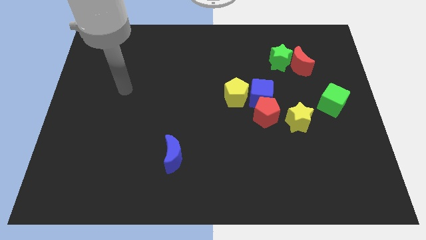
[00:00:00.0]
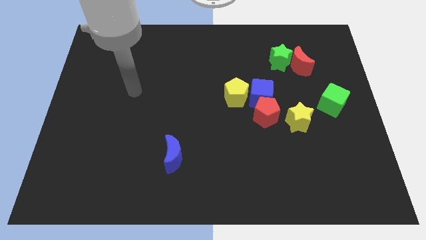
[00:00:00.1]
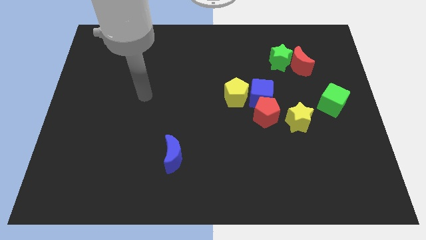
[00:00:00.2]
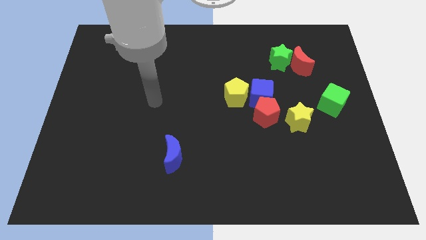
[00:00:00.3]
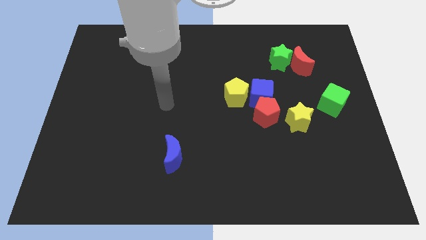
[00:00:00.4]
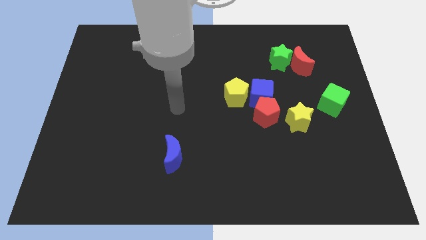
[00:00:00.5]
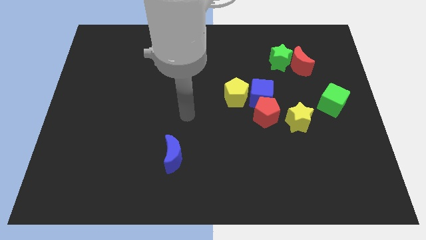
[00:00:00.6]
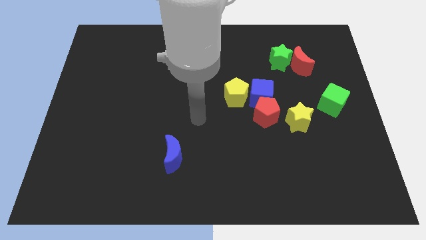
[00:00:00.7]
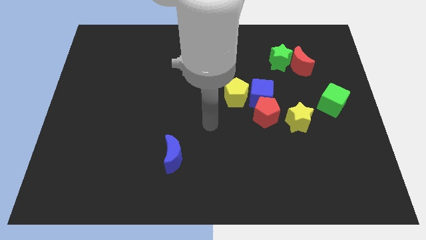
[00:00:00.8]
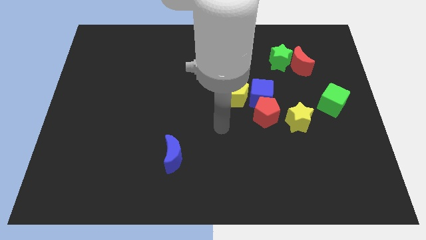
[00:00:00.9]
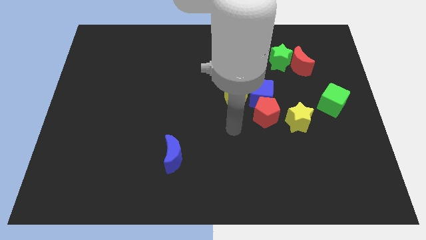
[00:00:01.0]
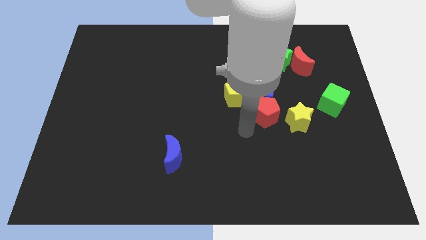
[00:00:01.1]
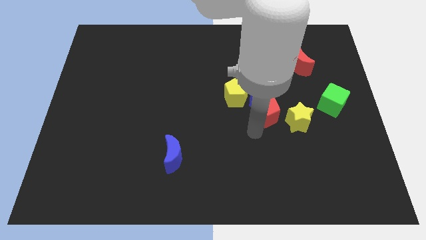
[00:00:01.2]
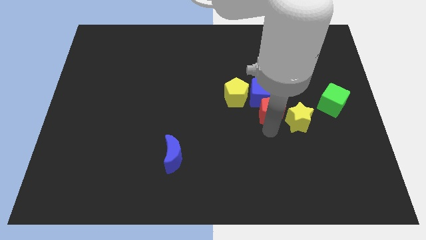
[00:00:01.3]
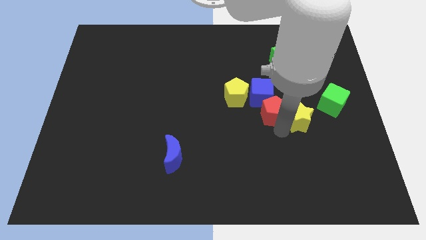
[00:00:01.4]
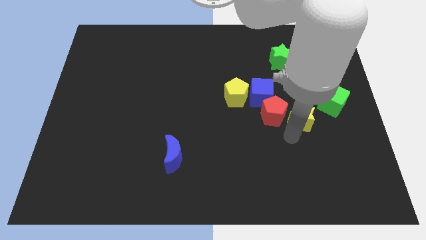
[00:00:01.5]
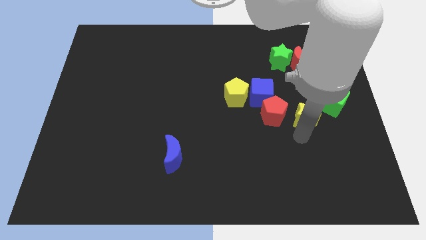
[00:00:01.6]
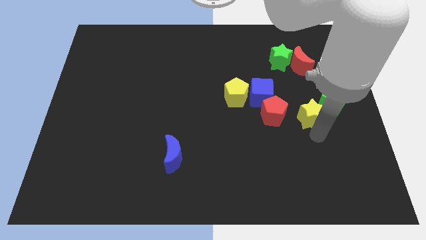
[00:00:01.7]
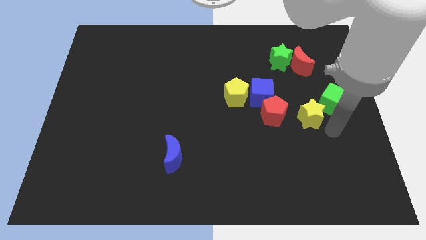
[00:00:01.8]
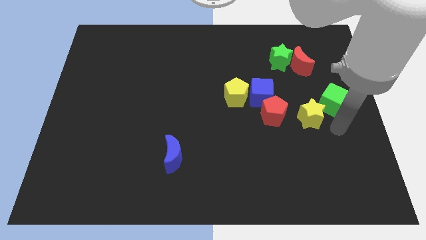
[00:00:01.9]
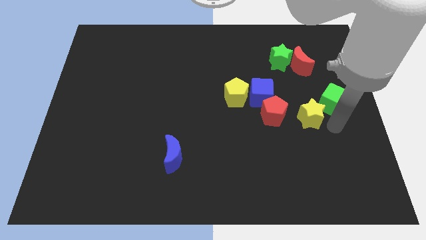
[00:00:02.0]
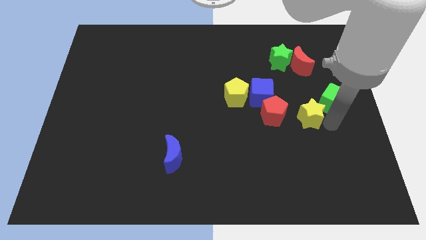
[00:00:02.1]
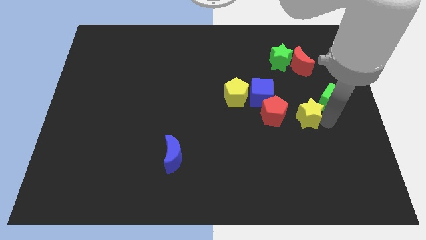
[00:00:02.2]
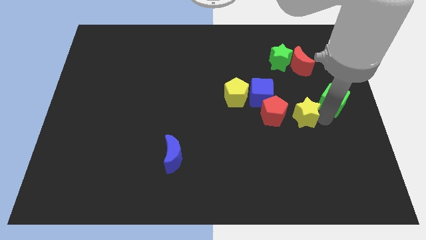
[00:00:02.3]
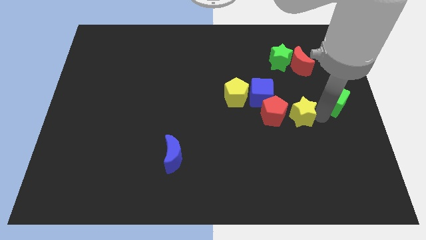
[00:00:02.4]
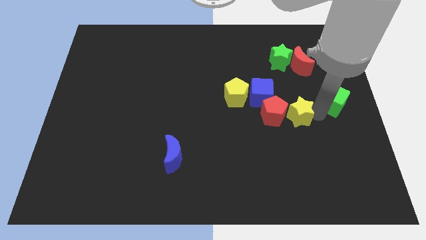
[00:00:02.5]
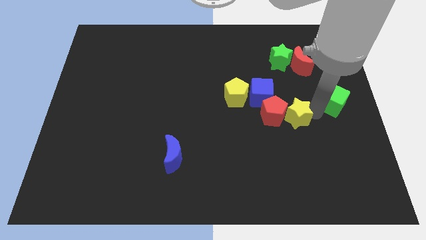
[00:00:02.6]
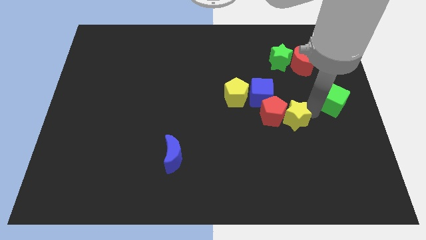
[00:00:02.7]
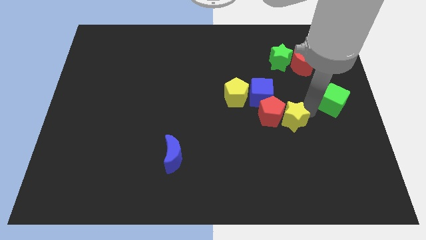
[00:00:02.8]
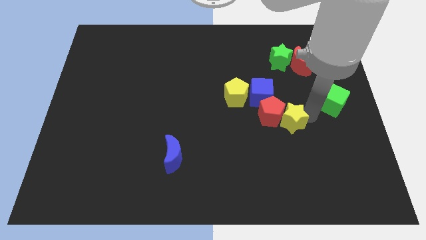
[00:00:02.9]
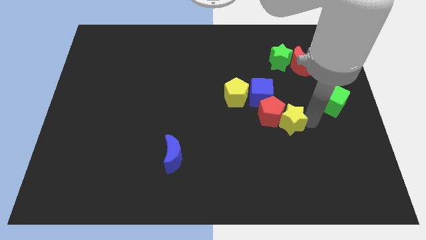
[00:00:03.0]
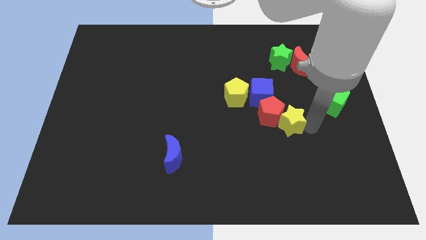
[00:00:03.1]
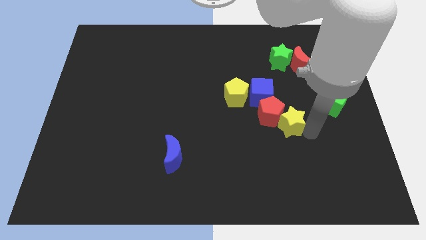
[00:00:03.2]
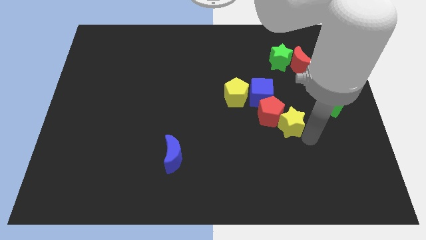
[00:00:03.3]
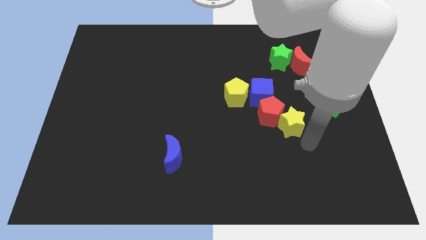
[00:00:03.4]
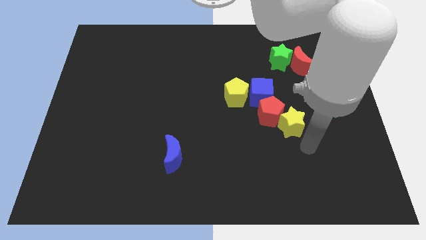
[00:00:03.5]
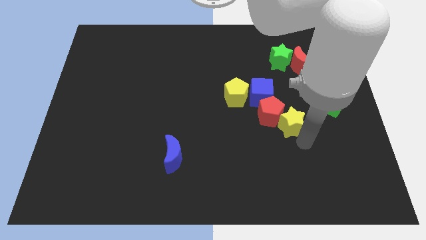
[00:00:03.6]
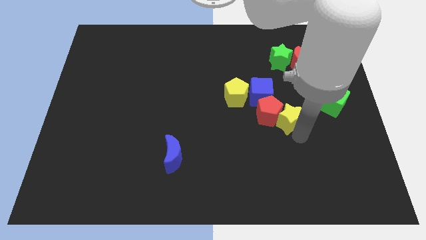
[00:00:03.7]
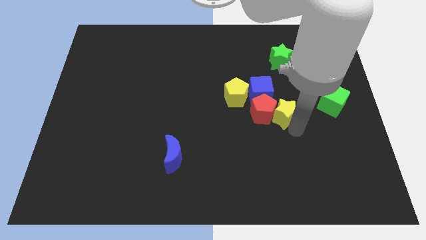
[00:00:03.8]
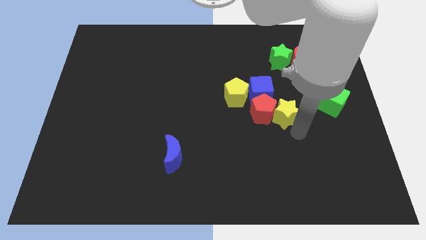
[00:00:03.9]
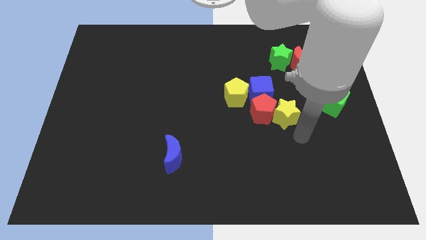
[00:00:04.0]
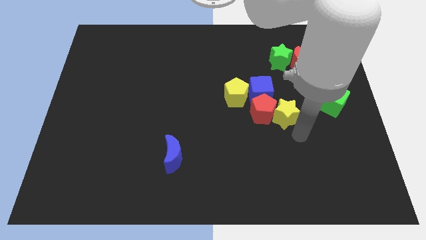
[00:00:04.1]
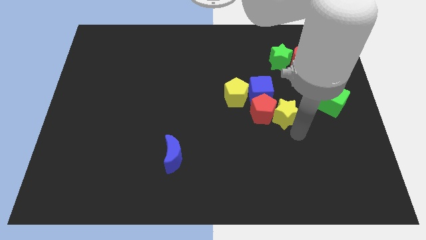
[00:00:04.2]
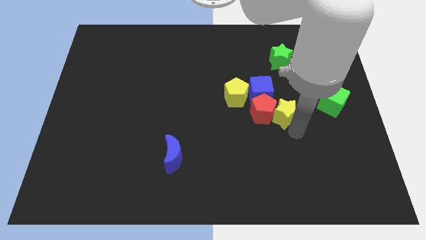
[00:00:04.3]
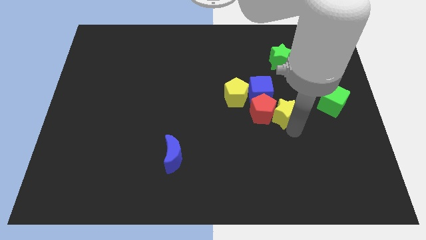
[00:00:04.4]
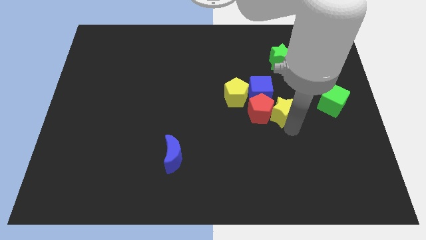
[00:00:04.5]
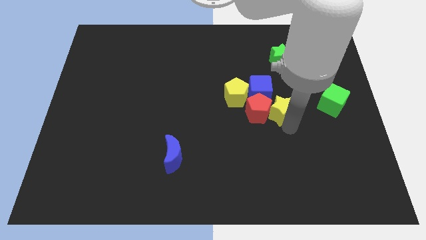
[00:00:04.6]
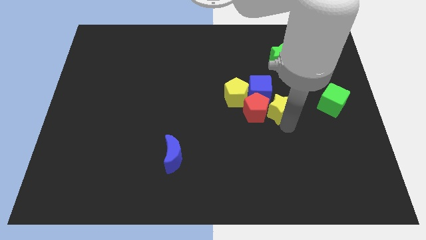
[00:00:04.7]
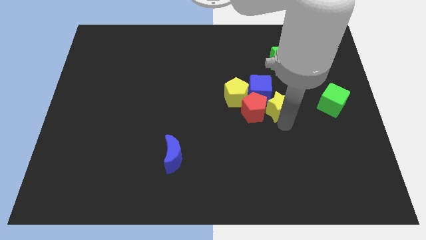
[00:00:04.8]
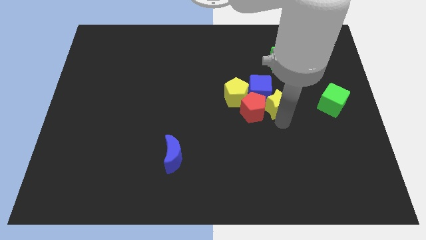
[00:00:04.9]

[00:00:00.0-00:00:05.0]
put the yellow star to the blue cube

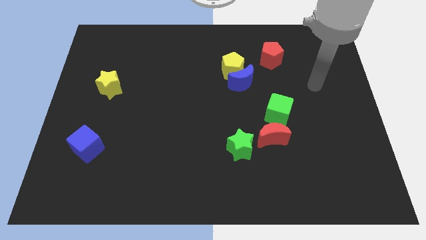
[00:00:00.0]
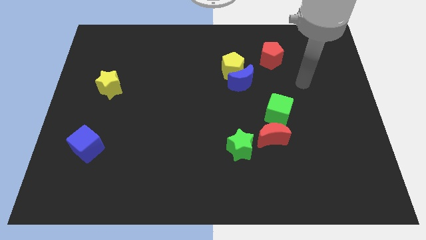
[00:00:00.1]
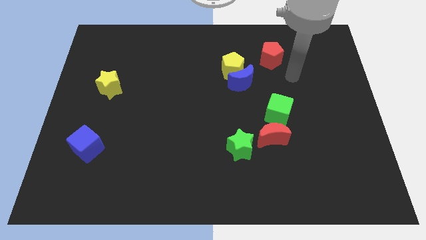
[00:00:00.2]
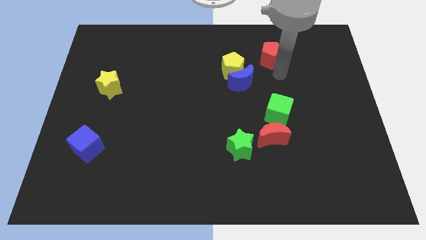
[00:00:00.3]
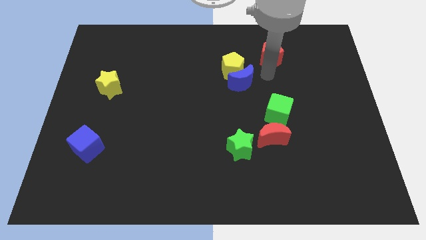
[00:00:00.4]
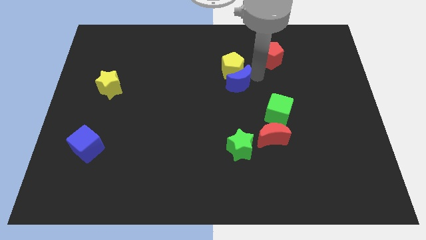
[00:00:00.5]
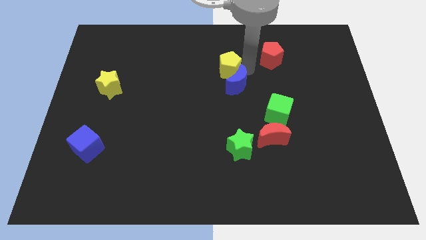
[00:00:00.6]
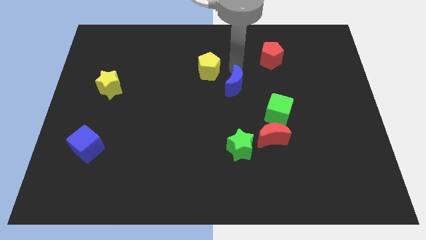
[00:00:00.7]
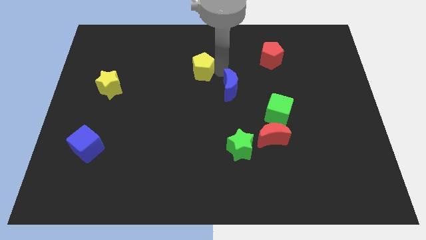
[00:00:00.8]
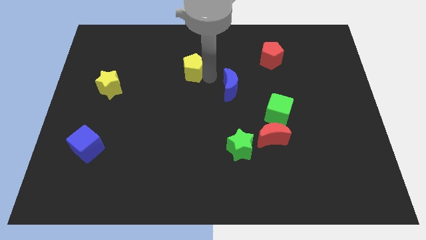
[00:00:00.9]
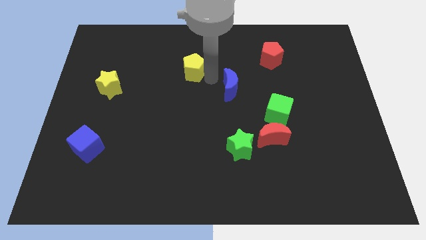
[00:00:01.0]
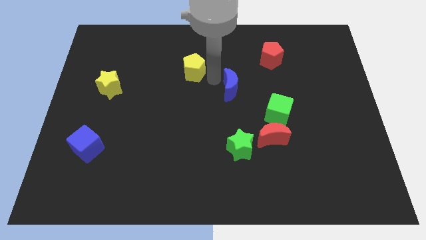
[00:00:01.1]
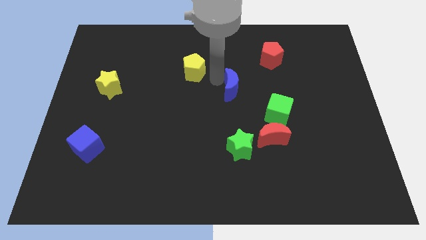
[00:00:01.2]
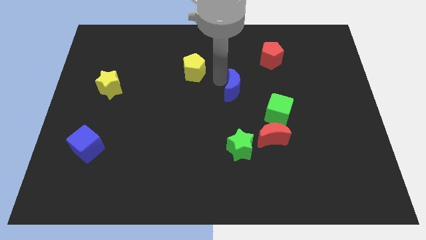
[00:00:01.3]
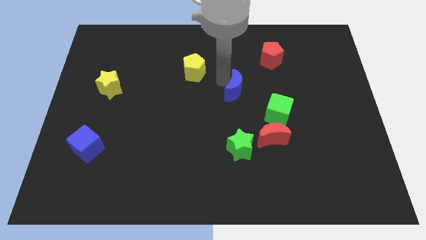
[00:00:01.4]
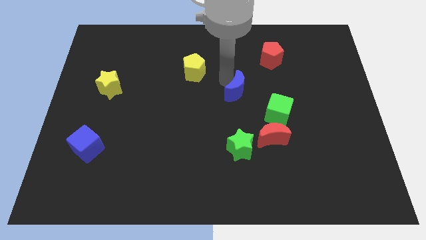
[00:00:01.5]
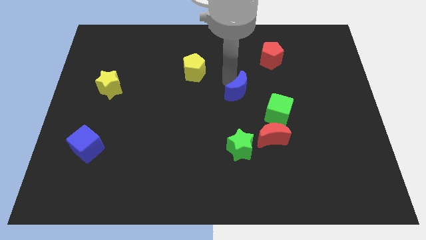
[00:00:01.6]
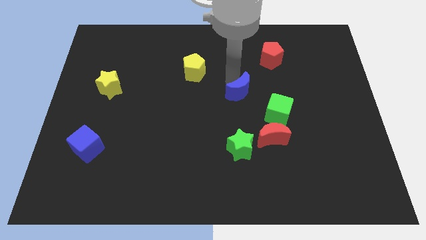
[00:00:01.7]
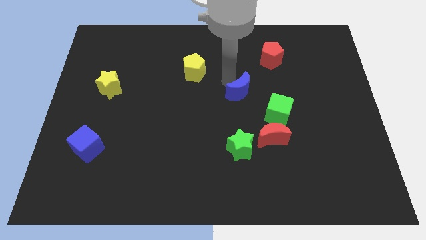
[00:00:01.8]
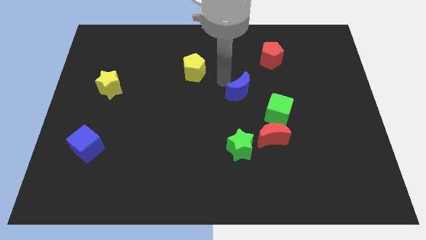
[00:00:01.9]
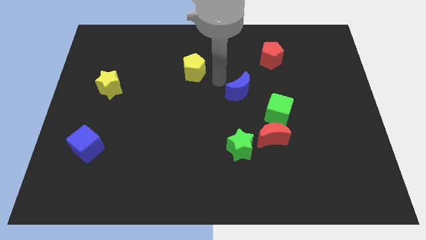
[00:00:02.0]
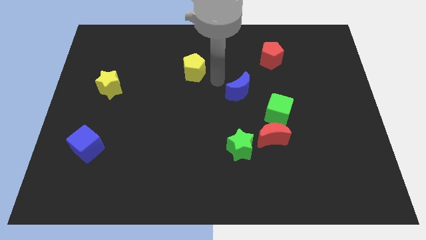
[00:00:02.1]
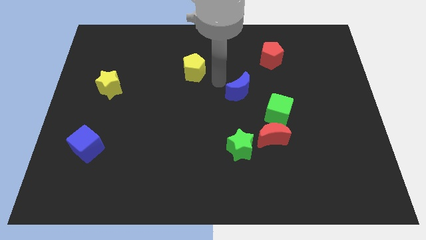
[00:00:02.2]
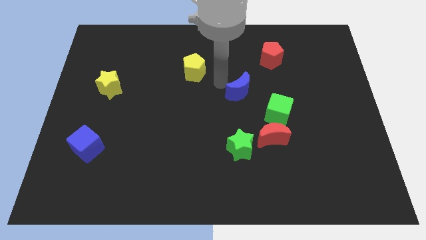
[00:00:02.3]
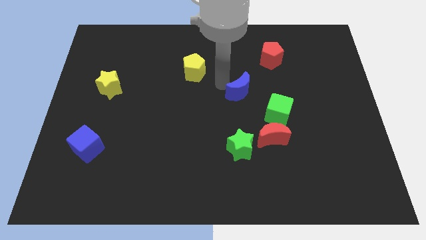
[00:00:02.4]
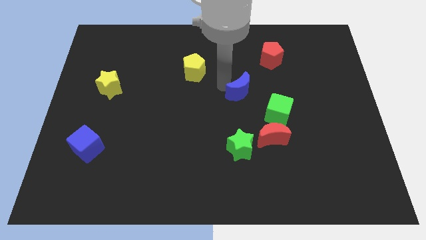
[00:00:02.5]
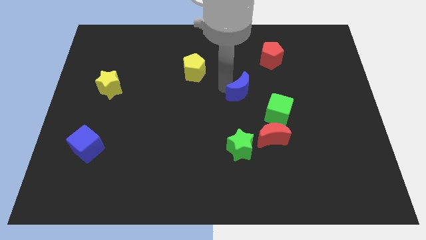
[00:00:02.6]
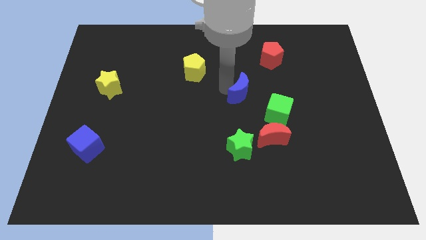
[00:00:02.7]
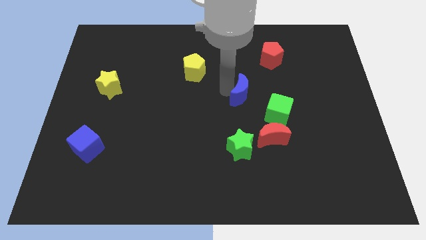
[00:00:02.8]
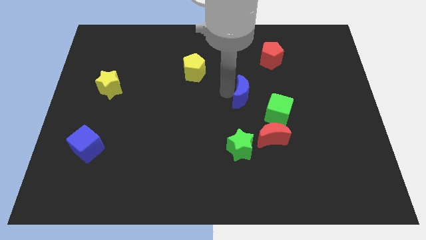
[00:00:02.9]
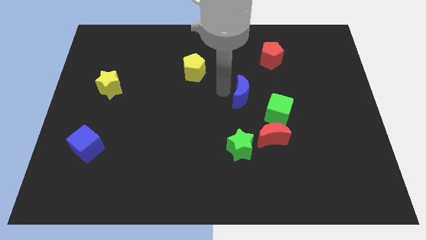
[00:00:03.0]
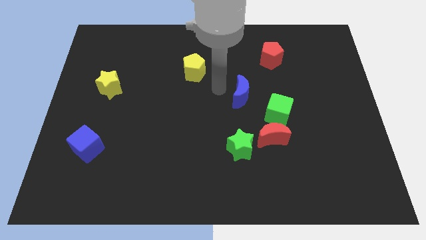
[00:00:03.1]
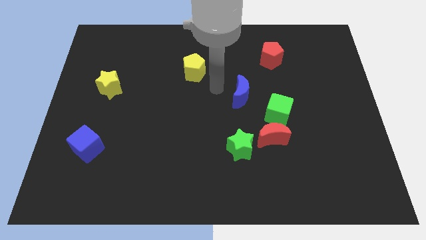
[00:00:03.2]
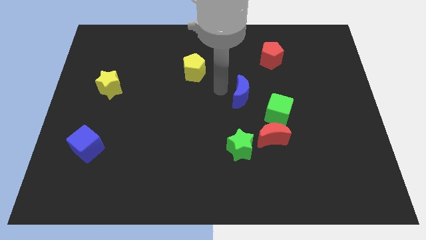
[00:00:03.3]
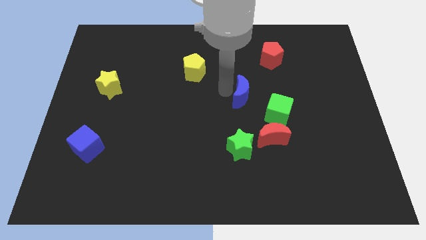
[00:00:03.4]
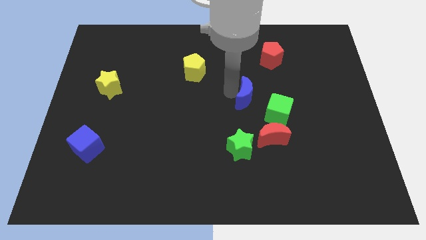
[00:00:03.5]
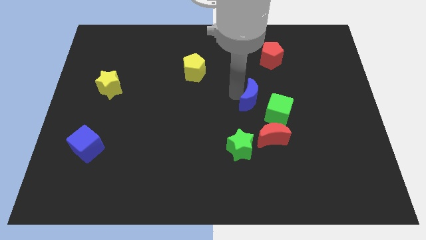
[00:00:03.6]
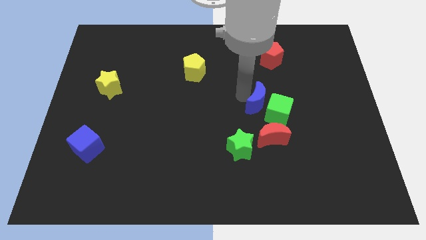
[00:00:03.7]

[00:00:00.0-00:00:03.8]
push the blue moon close to the green cube
